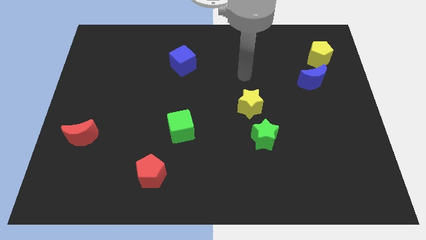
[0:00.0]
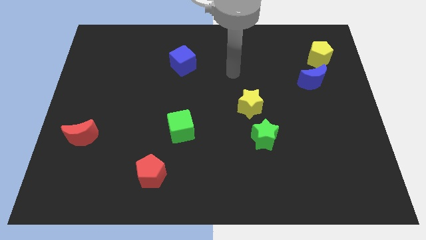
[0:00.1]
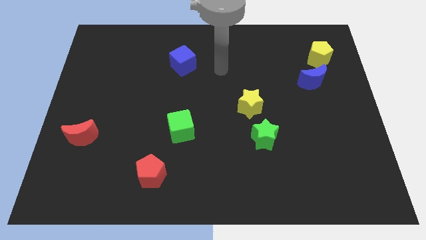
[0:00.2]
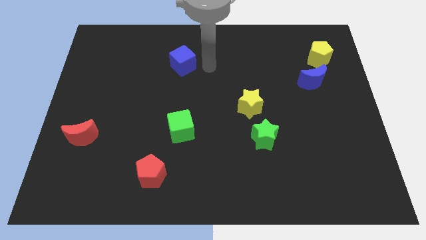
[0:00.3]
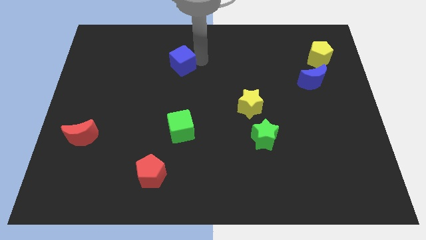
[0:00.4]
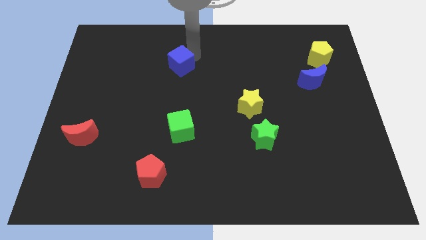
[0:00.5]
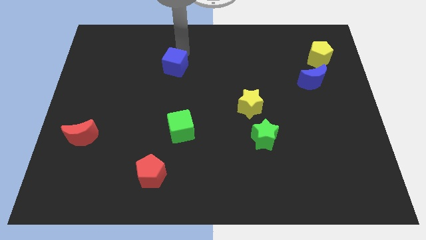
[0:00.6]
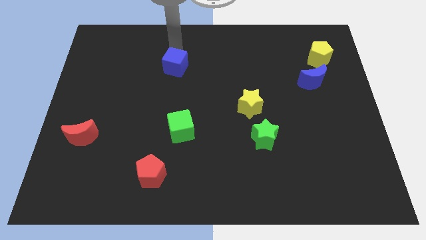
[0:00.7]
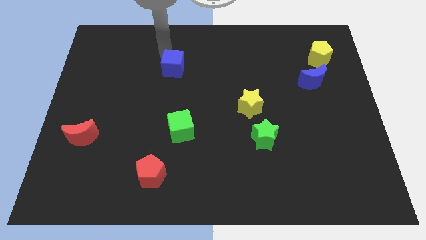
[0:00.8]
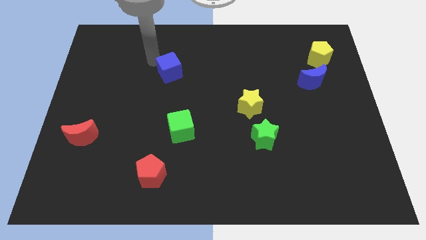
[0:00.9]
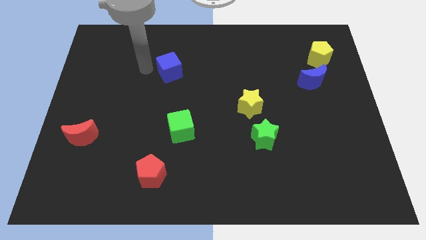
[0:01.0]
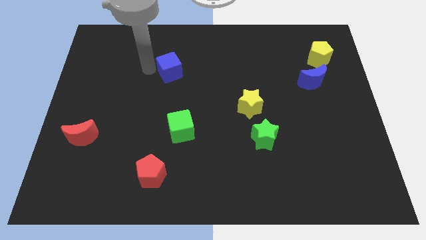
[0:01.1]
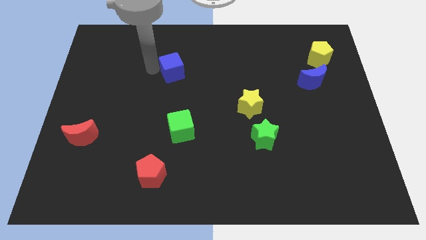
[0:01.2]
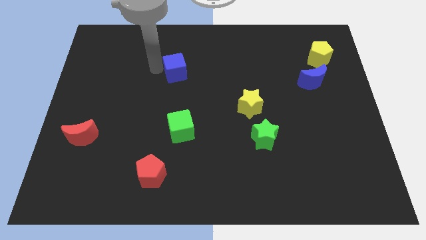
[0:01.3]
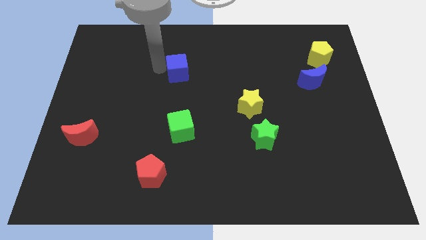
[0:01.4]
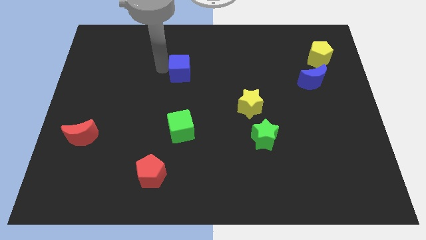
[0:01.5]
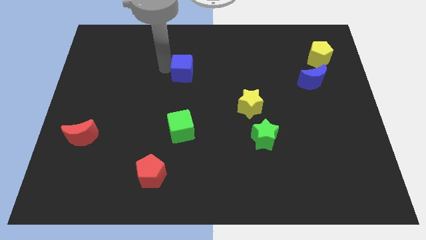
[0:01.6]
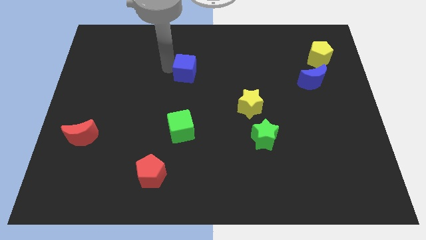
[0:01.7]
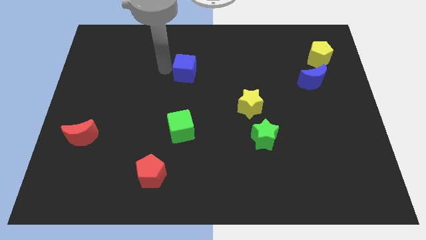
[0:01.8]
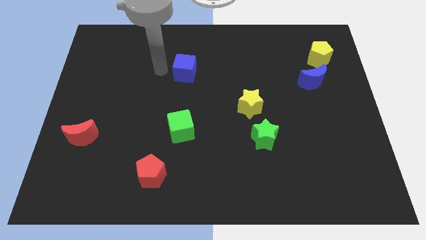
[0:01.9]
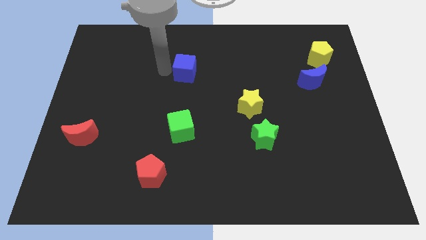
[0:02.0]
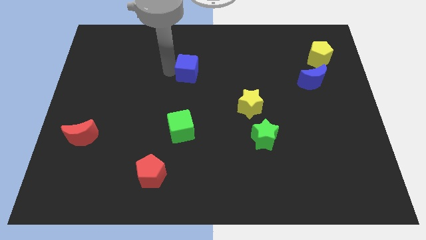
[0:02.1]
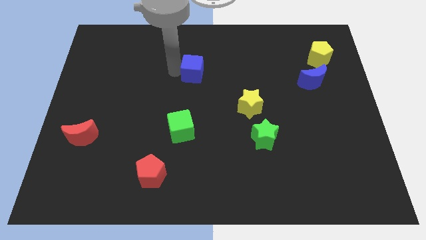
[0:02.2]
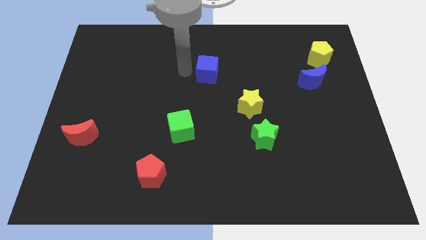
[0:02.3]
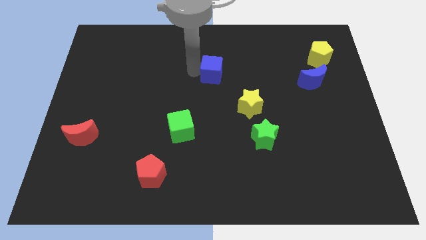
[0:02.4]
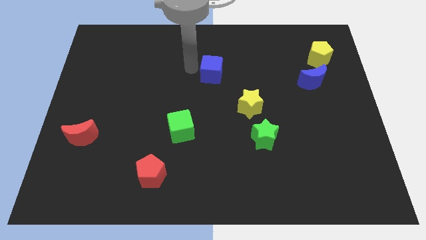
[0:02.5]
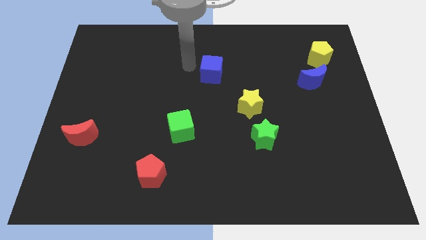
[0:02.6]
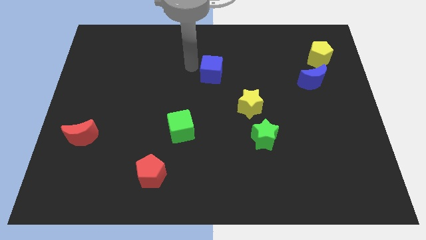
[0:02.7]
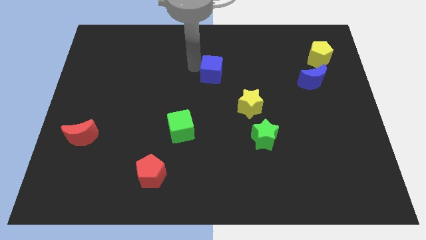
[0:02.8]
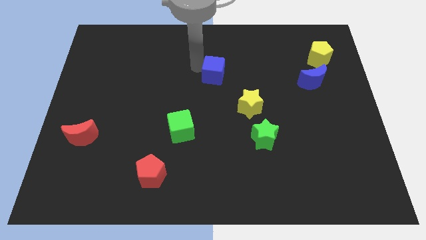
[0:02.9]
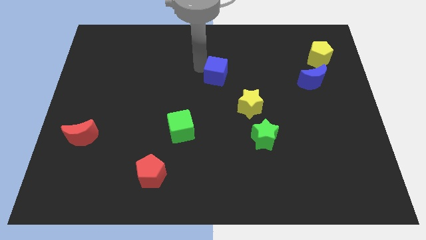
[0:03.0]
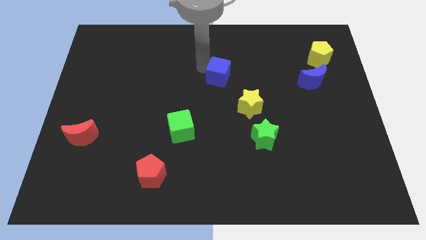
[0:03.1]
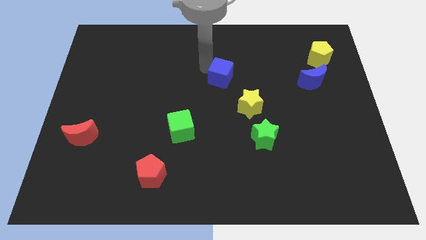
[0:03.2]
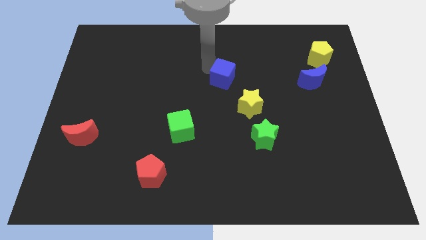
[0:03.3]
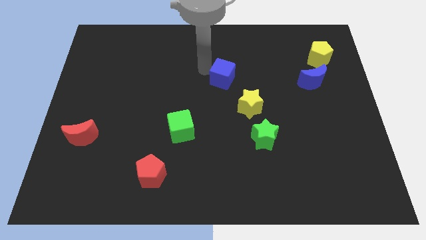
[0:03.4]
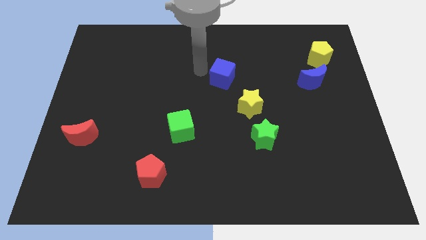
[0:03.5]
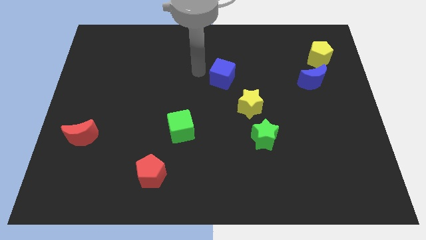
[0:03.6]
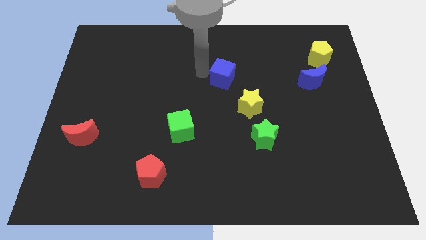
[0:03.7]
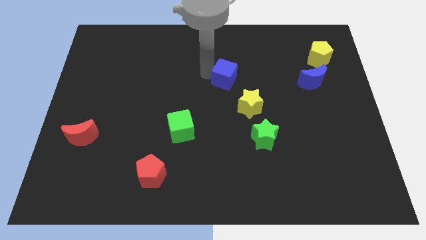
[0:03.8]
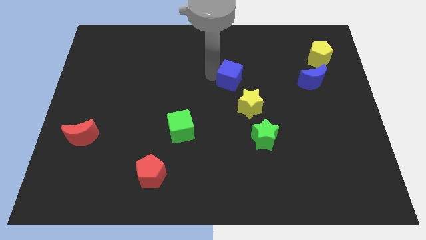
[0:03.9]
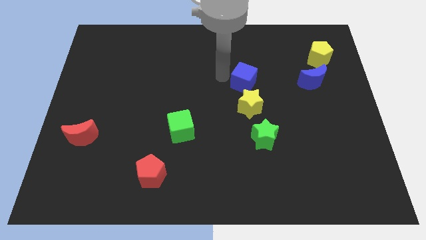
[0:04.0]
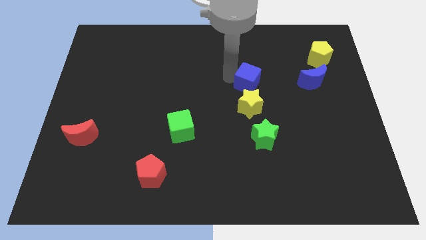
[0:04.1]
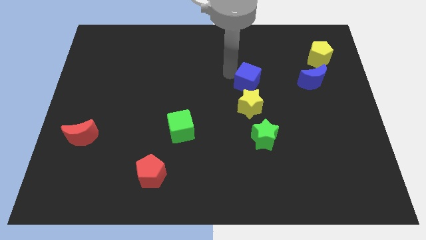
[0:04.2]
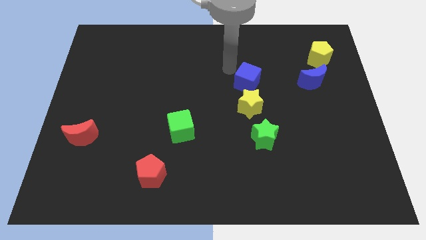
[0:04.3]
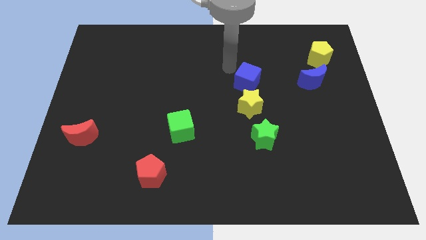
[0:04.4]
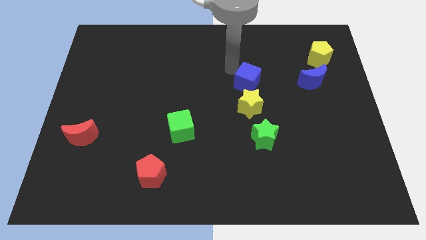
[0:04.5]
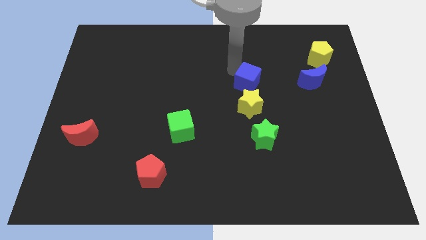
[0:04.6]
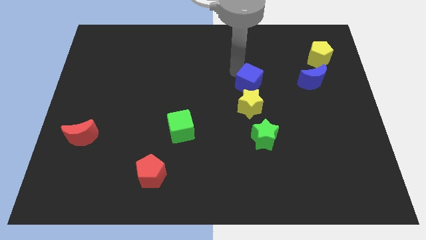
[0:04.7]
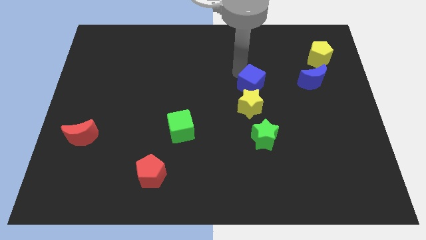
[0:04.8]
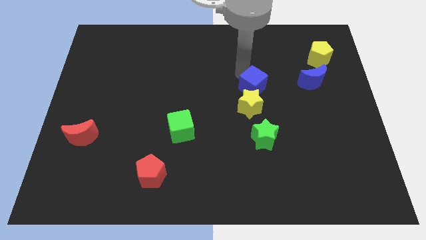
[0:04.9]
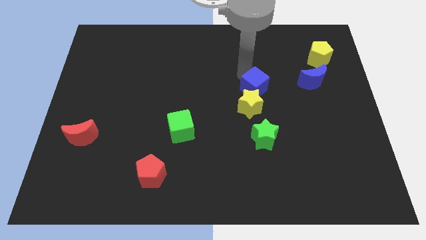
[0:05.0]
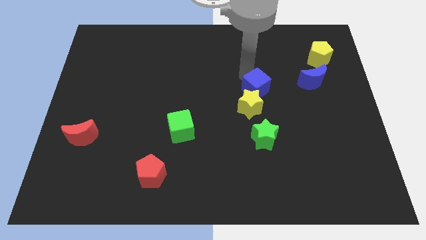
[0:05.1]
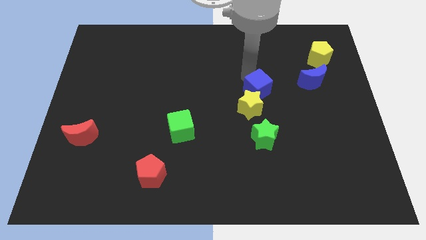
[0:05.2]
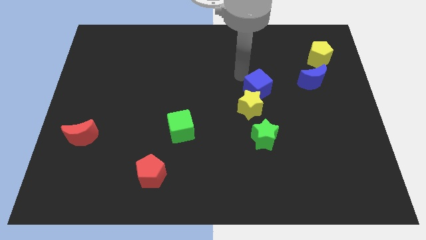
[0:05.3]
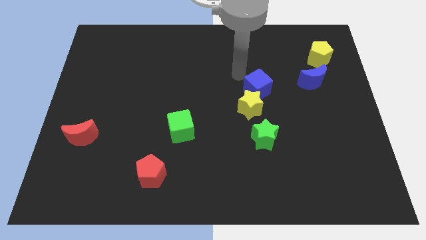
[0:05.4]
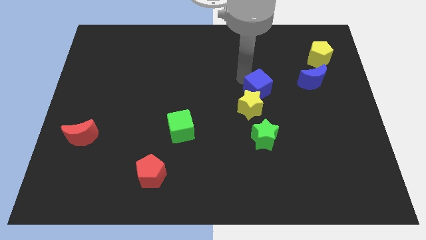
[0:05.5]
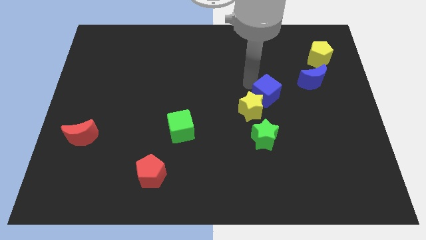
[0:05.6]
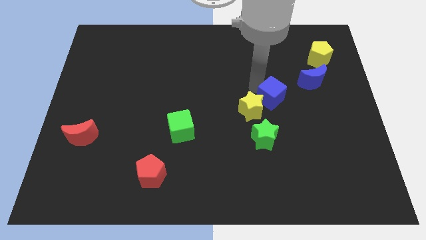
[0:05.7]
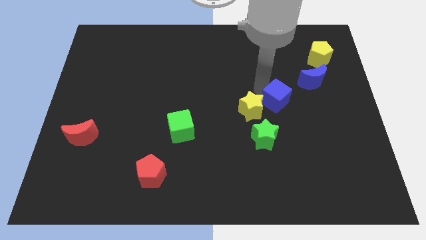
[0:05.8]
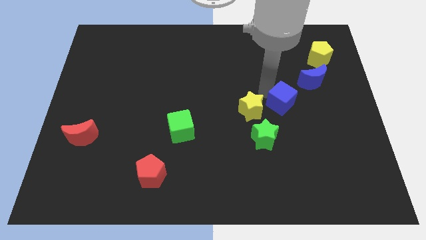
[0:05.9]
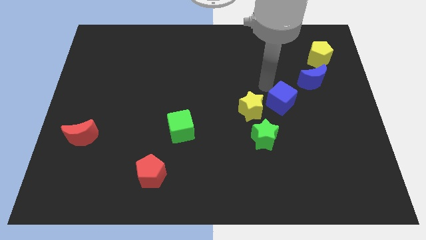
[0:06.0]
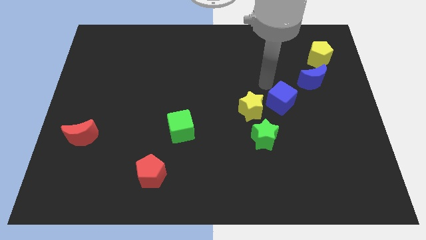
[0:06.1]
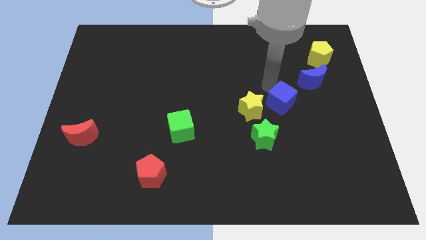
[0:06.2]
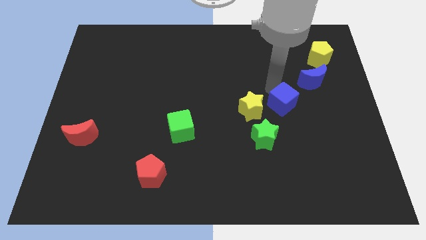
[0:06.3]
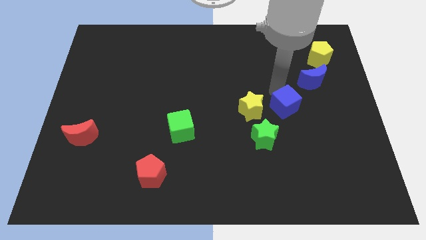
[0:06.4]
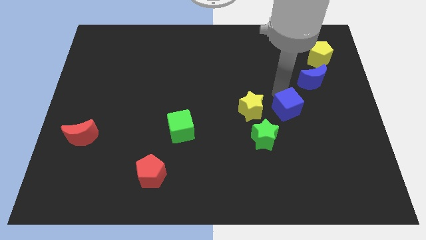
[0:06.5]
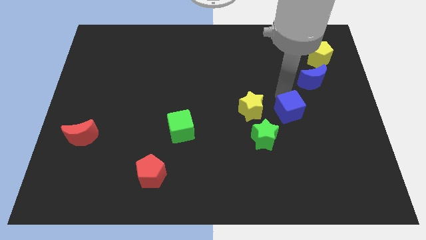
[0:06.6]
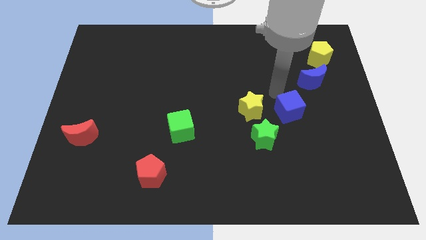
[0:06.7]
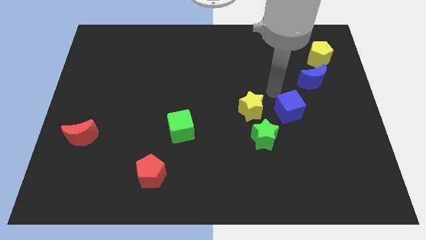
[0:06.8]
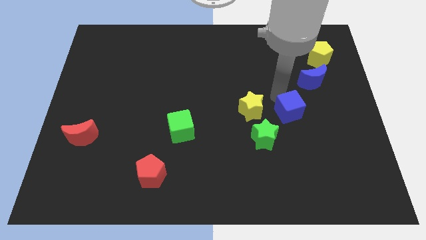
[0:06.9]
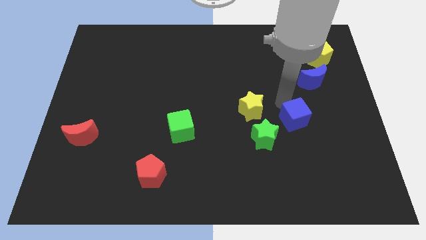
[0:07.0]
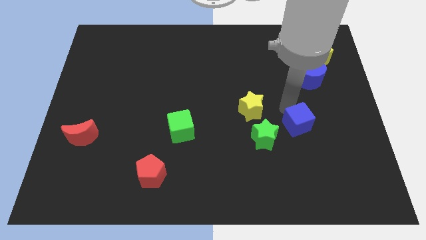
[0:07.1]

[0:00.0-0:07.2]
put the blue cube to the right side of the green star

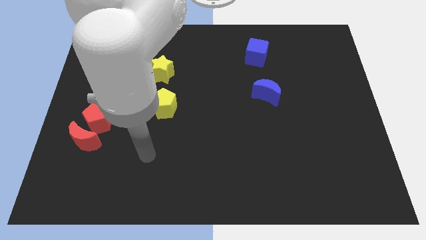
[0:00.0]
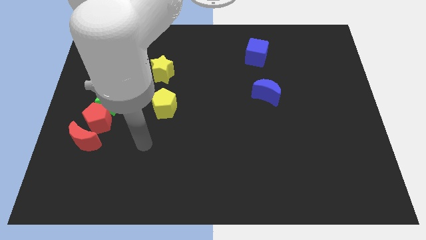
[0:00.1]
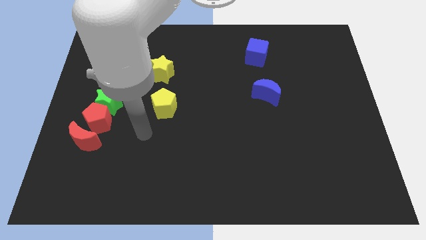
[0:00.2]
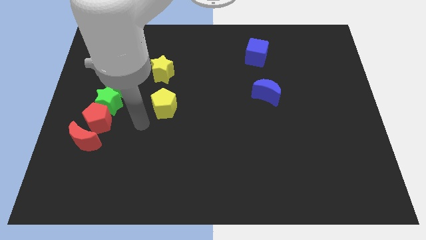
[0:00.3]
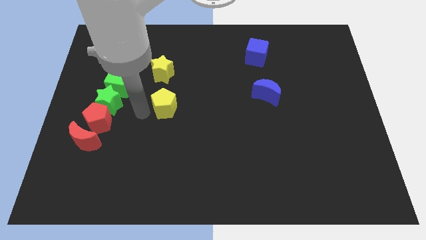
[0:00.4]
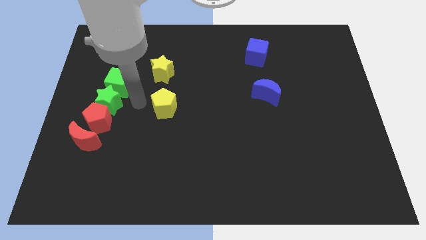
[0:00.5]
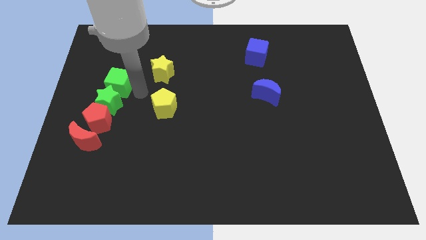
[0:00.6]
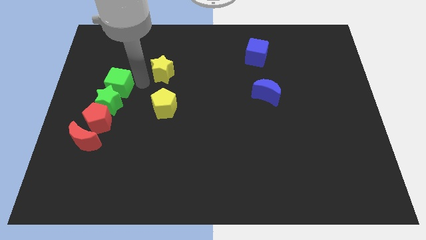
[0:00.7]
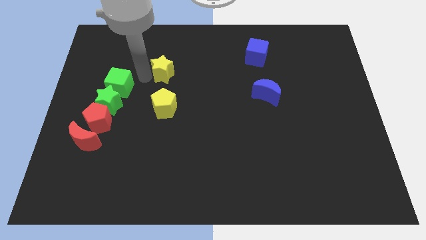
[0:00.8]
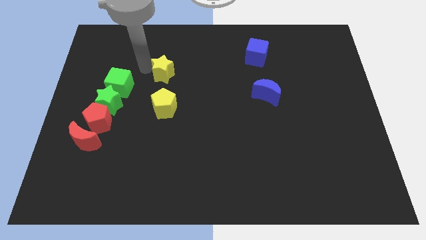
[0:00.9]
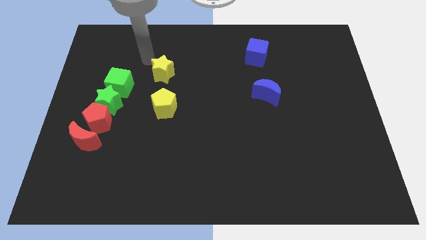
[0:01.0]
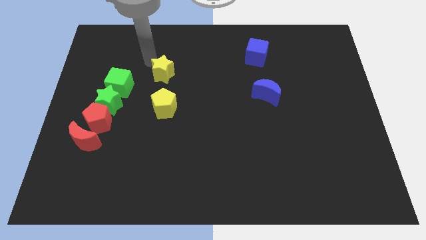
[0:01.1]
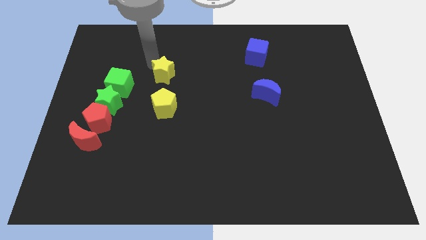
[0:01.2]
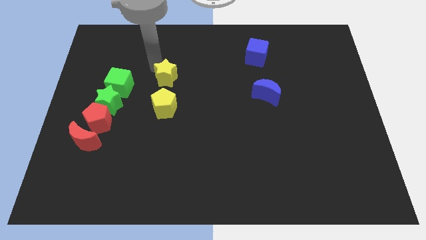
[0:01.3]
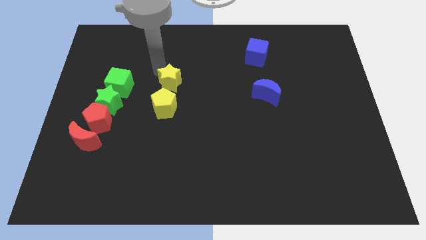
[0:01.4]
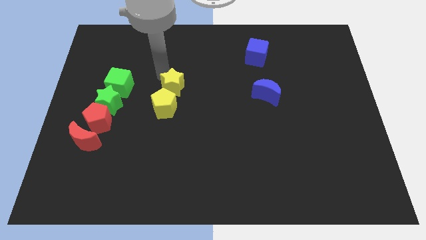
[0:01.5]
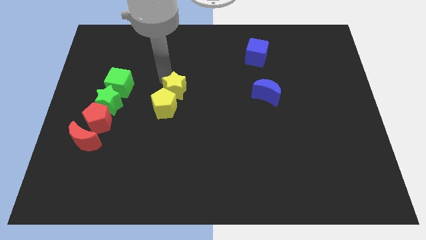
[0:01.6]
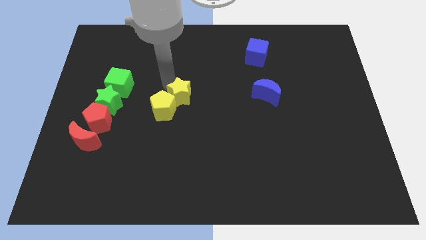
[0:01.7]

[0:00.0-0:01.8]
move the yellow star right of the yellow pentagon
